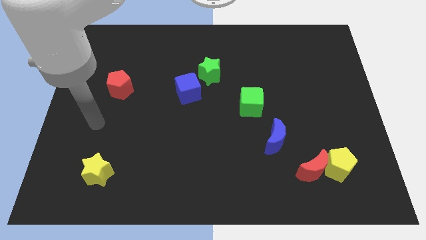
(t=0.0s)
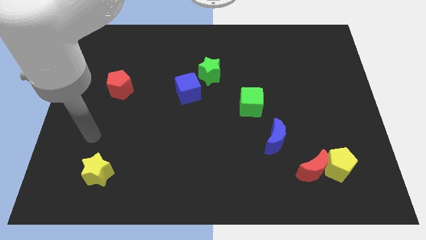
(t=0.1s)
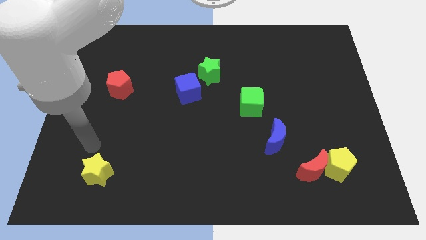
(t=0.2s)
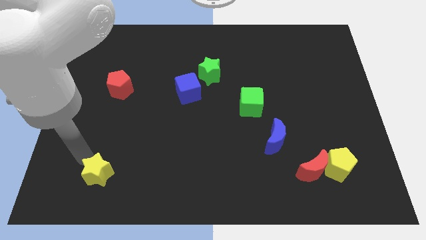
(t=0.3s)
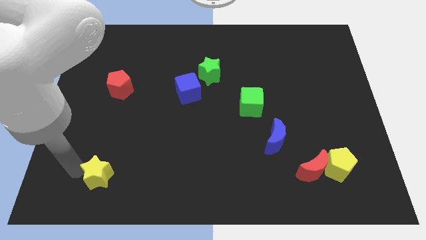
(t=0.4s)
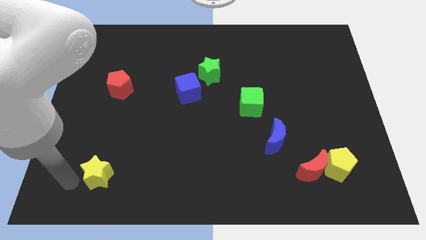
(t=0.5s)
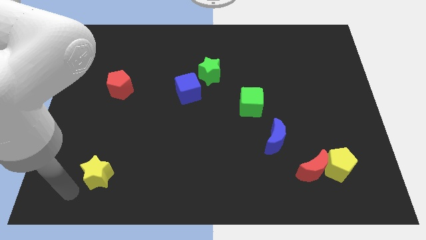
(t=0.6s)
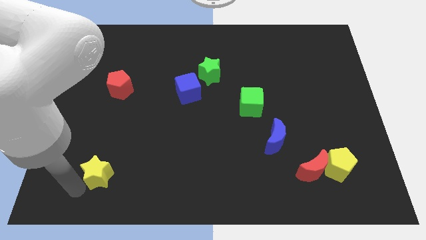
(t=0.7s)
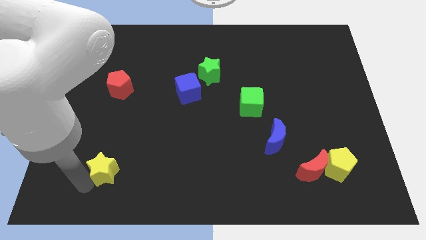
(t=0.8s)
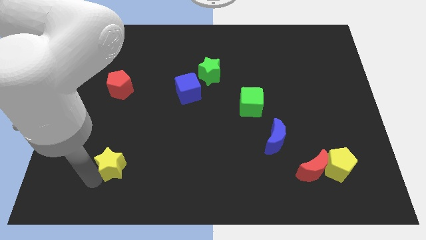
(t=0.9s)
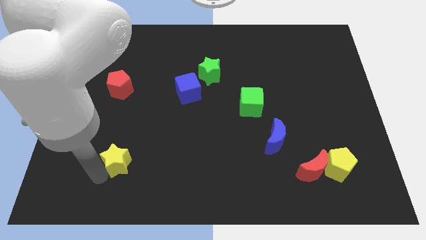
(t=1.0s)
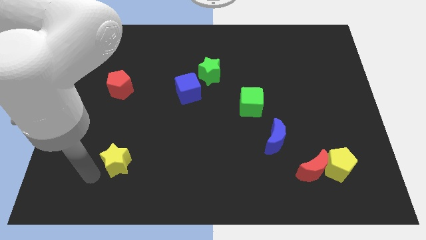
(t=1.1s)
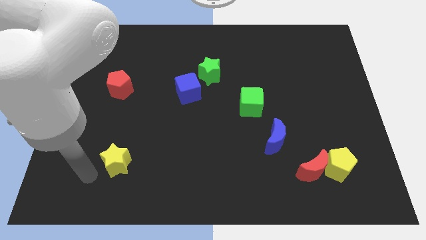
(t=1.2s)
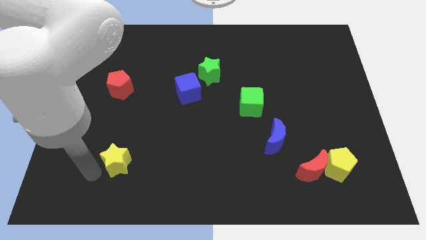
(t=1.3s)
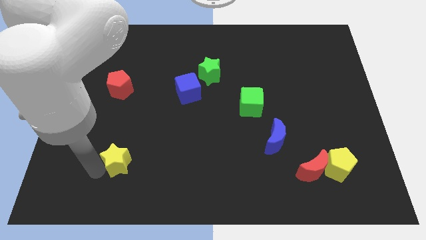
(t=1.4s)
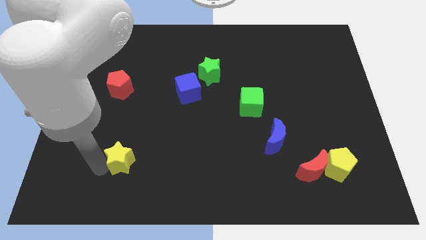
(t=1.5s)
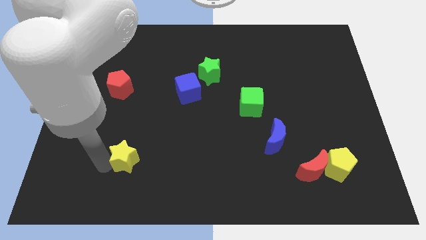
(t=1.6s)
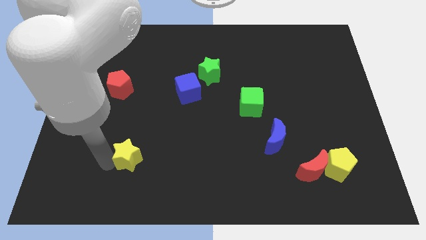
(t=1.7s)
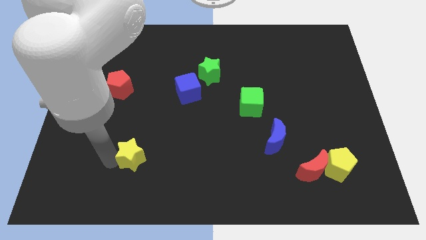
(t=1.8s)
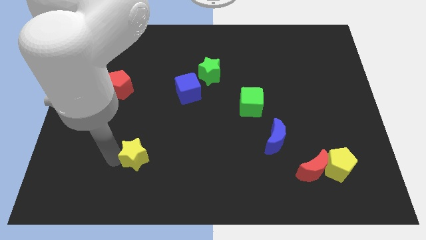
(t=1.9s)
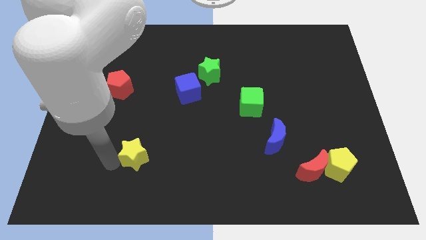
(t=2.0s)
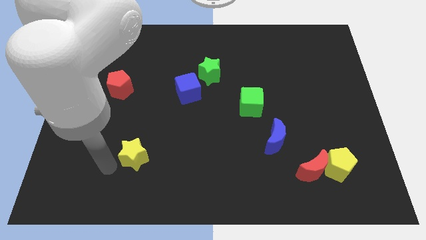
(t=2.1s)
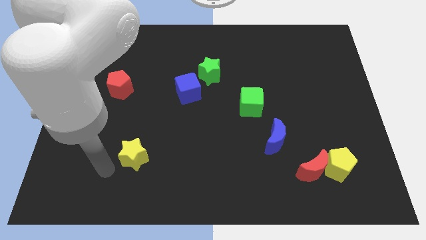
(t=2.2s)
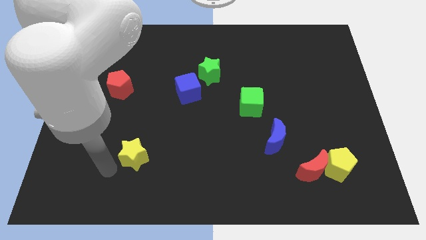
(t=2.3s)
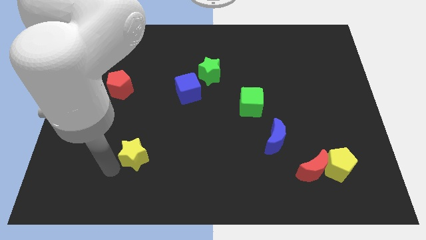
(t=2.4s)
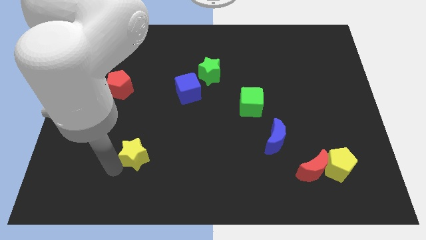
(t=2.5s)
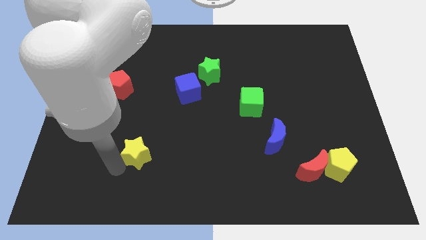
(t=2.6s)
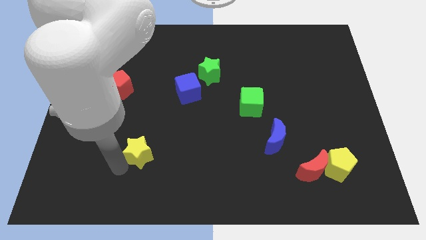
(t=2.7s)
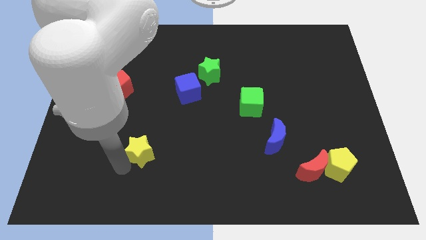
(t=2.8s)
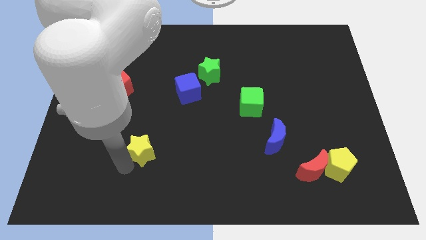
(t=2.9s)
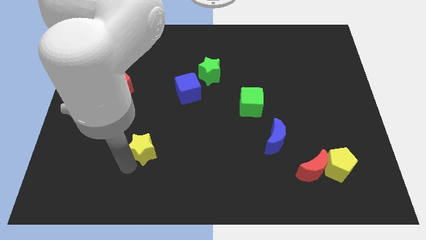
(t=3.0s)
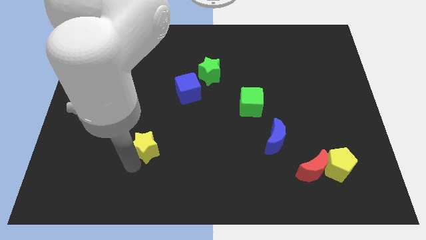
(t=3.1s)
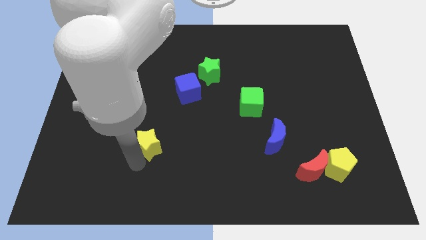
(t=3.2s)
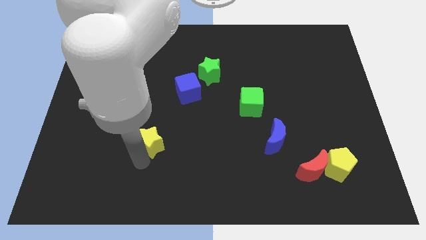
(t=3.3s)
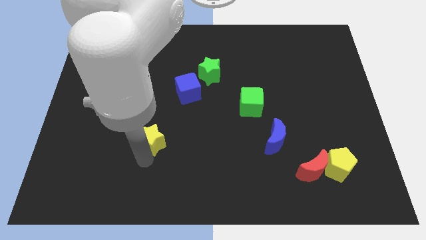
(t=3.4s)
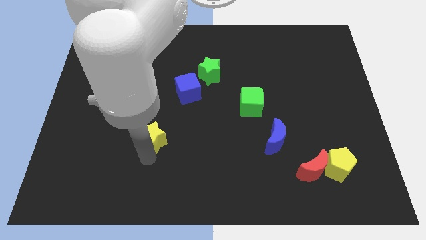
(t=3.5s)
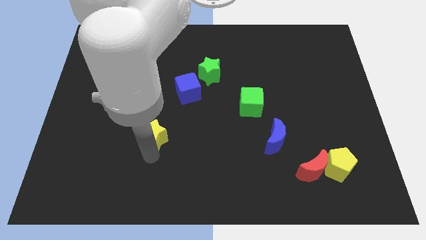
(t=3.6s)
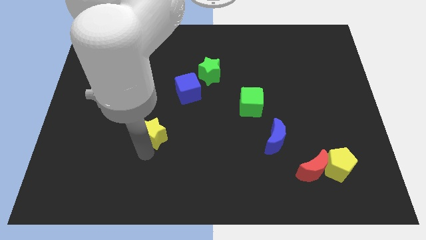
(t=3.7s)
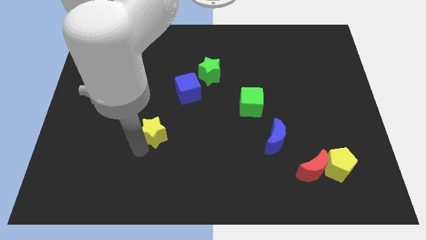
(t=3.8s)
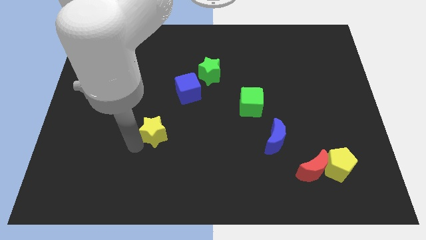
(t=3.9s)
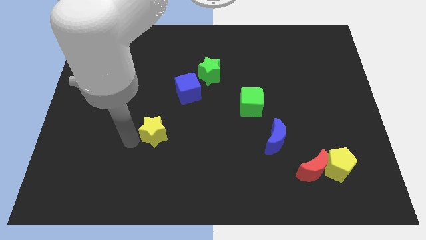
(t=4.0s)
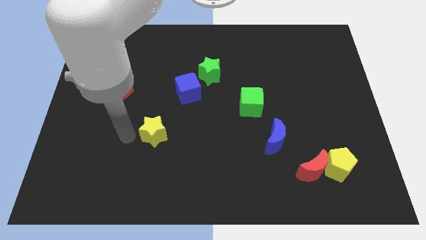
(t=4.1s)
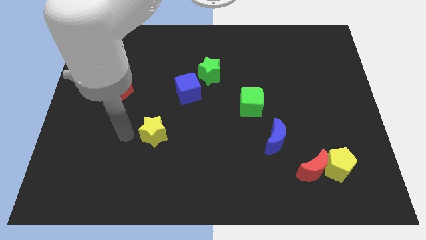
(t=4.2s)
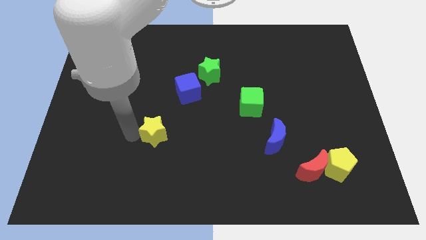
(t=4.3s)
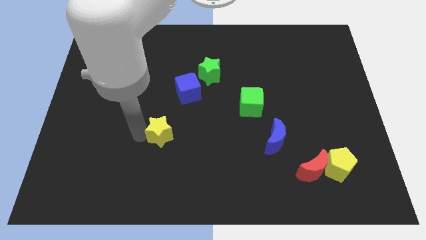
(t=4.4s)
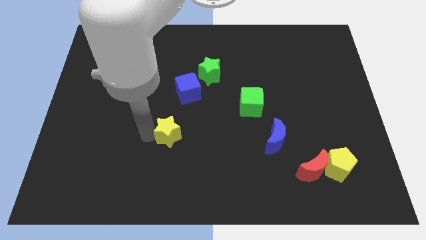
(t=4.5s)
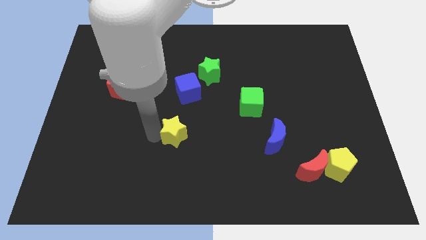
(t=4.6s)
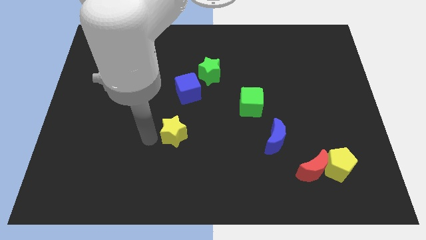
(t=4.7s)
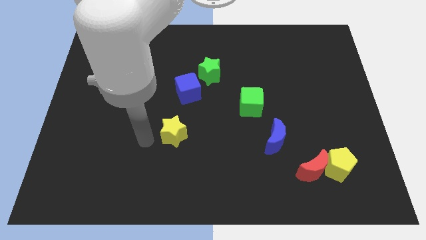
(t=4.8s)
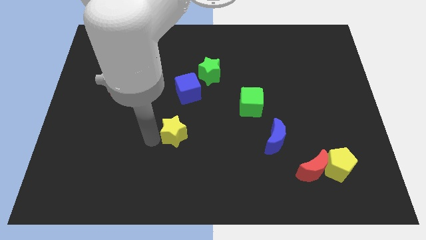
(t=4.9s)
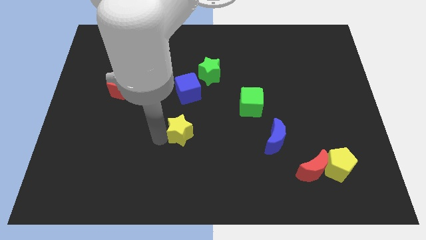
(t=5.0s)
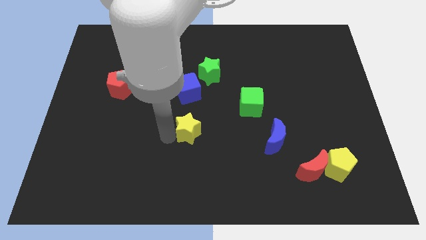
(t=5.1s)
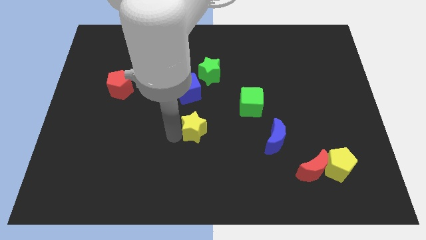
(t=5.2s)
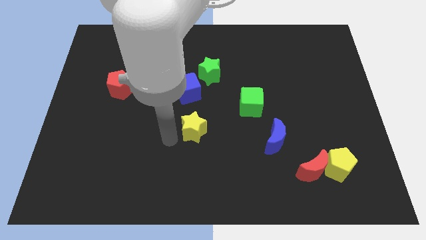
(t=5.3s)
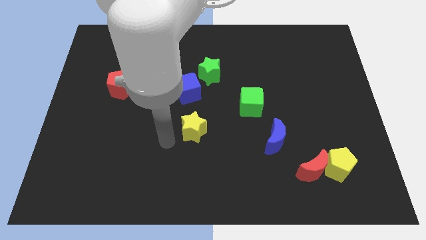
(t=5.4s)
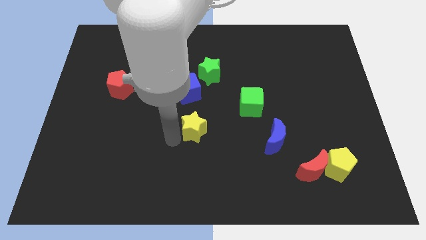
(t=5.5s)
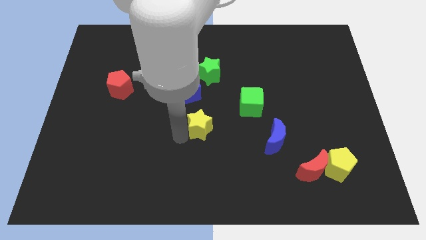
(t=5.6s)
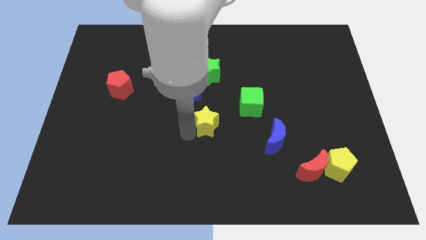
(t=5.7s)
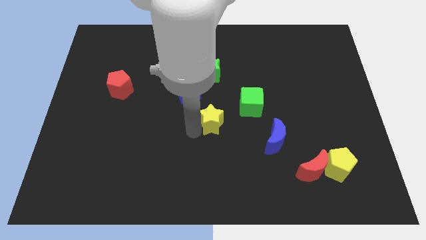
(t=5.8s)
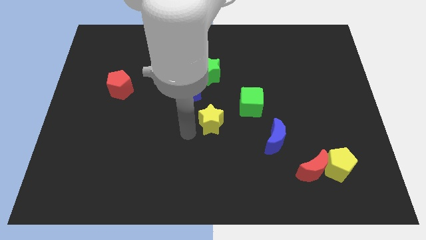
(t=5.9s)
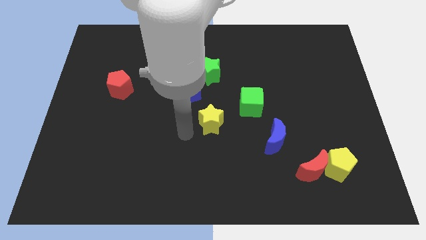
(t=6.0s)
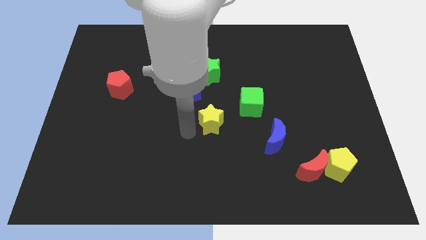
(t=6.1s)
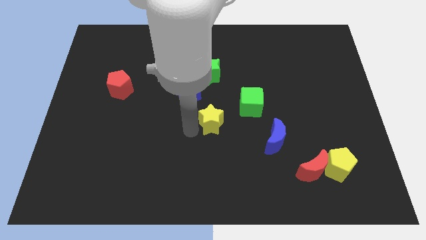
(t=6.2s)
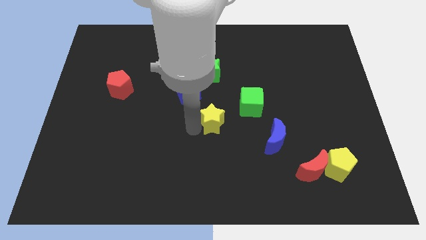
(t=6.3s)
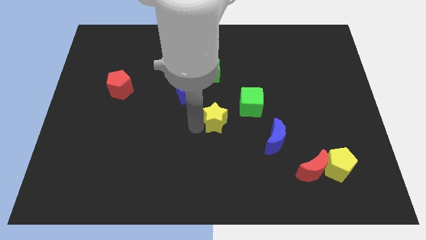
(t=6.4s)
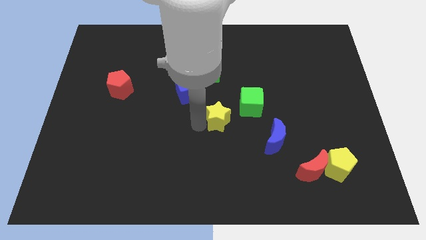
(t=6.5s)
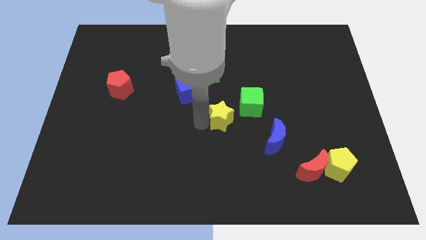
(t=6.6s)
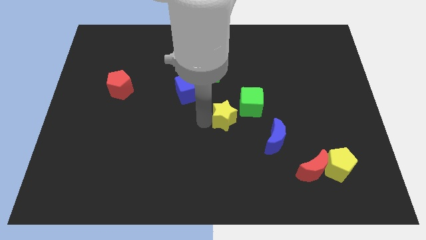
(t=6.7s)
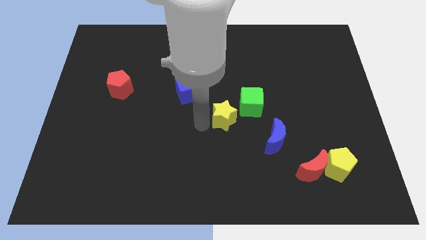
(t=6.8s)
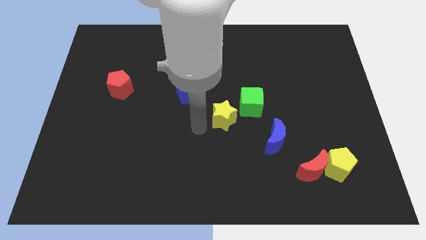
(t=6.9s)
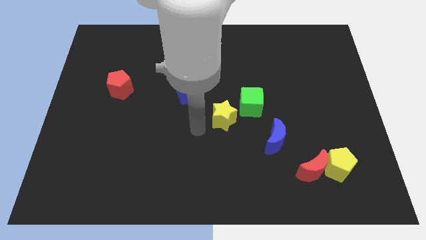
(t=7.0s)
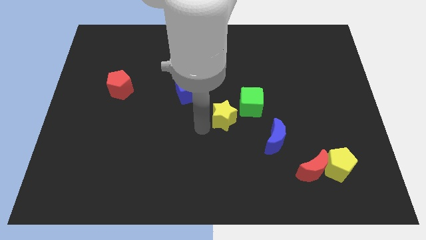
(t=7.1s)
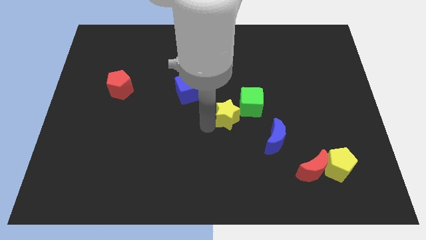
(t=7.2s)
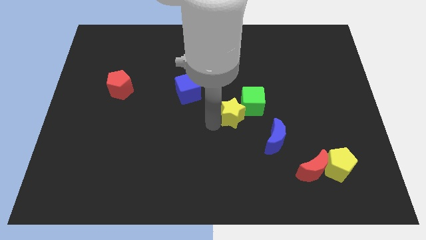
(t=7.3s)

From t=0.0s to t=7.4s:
push the yellow star towards the green cube
